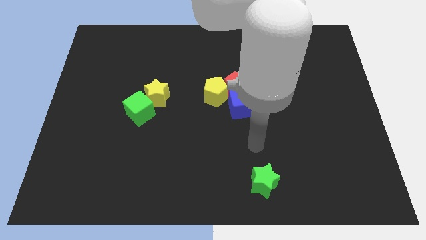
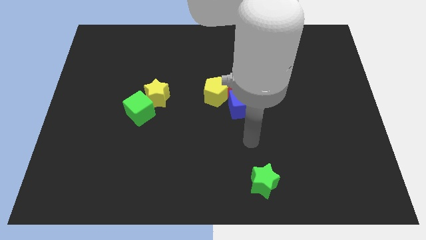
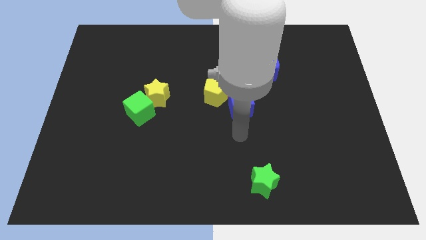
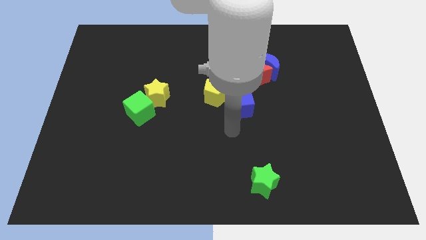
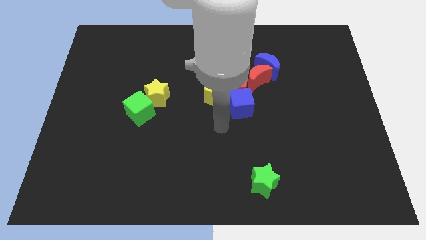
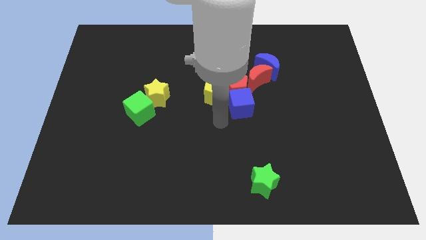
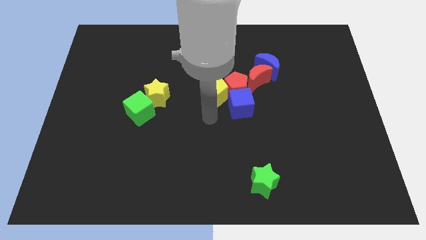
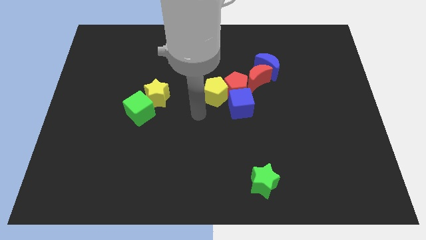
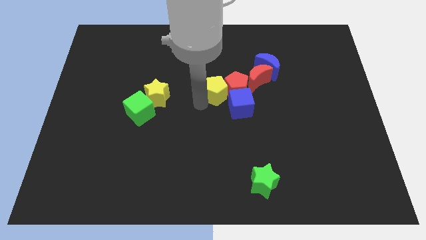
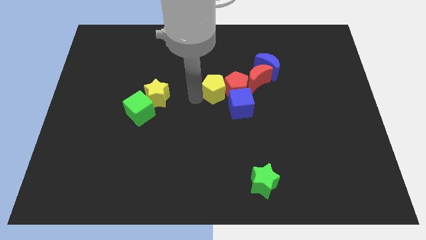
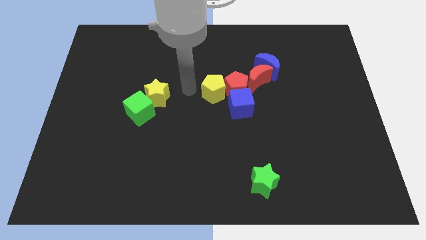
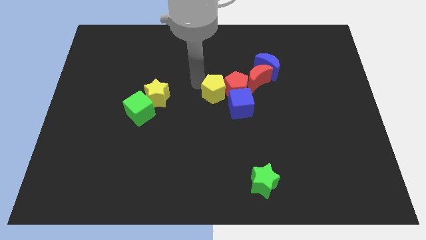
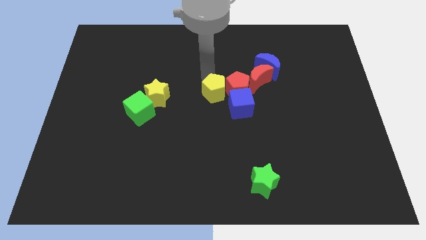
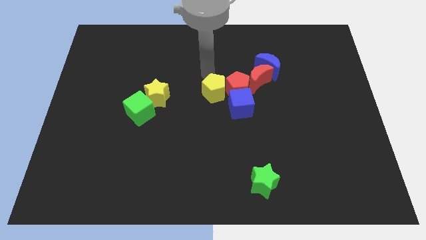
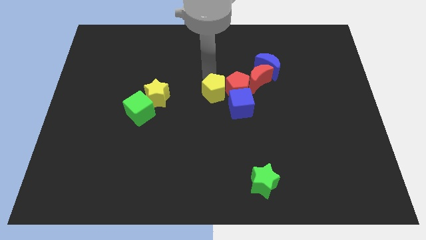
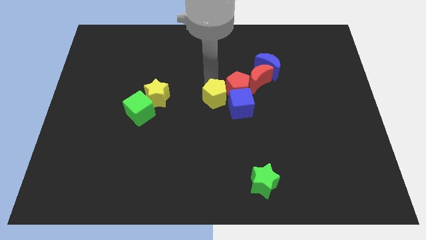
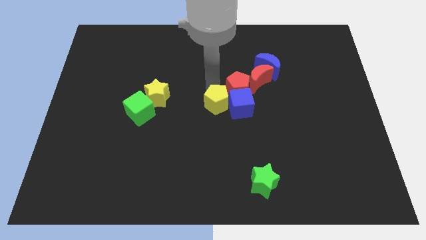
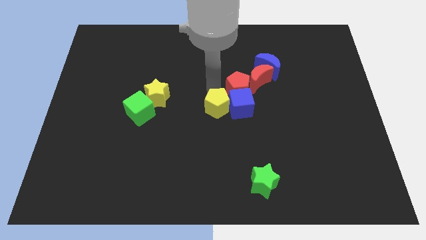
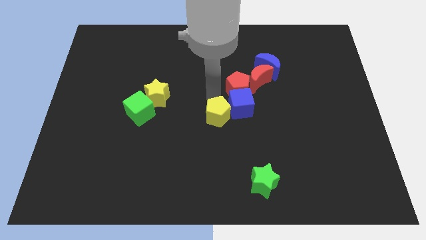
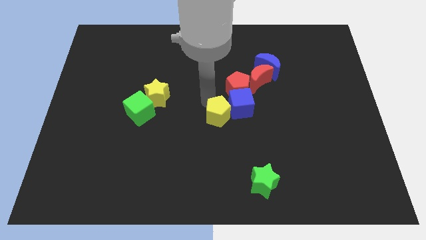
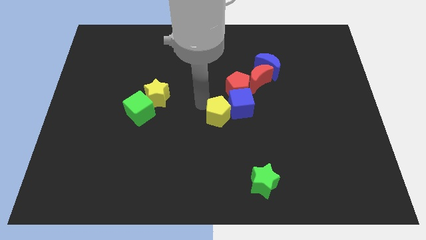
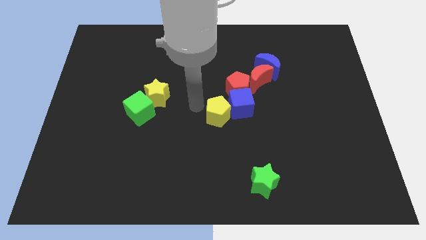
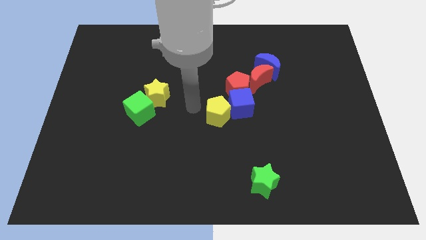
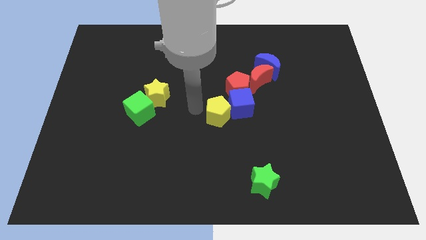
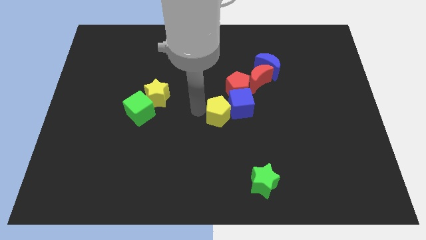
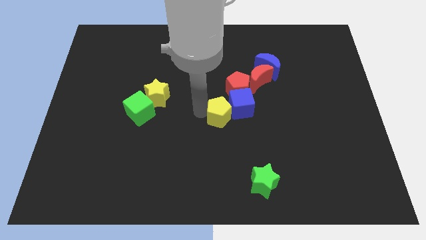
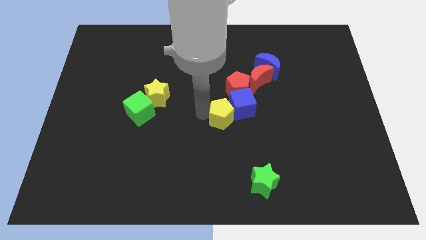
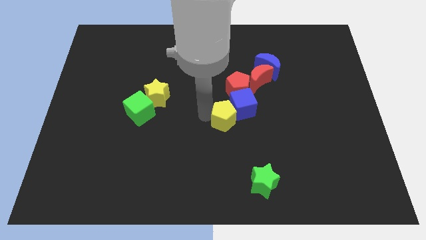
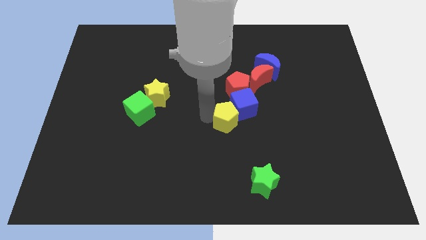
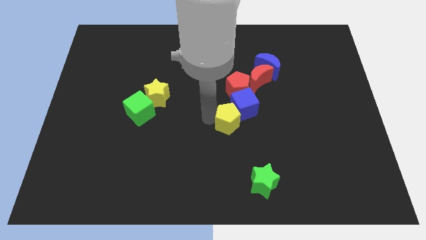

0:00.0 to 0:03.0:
slightly push the yellow pentagon diagonally downwards and right

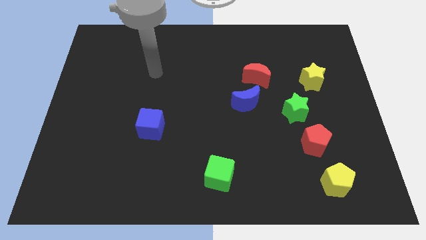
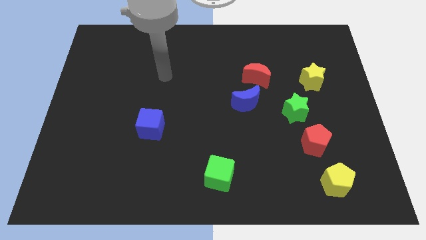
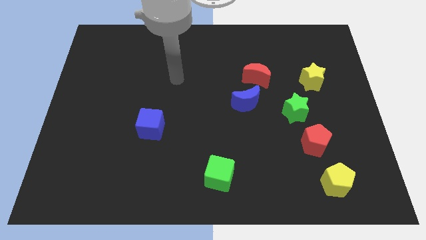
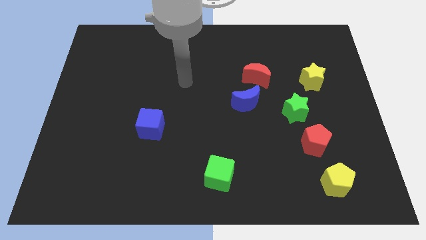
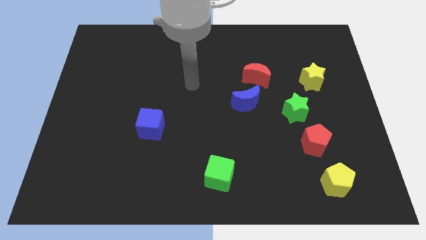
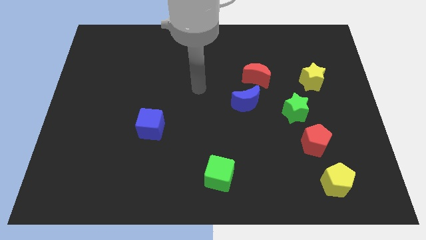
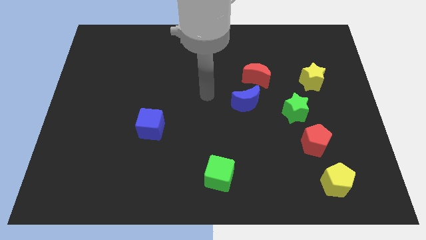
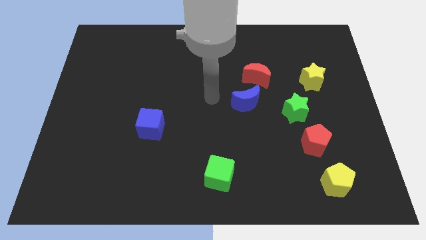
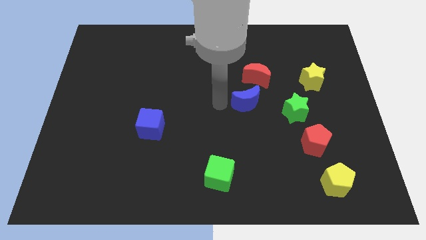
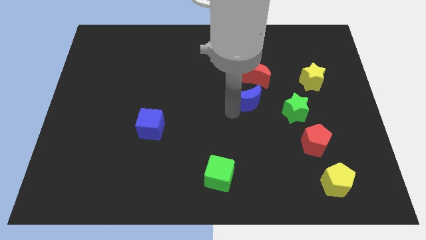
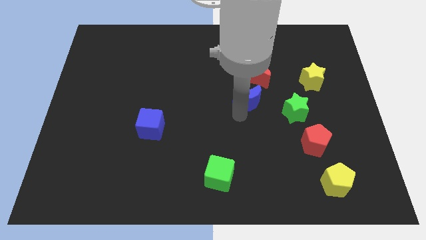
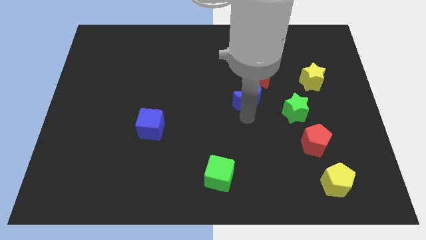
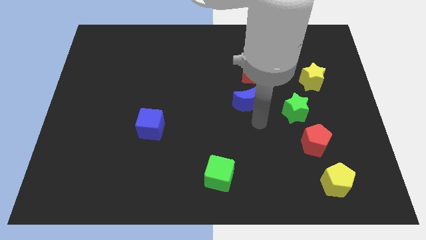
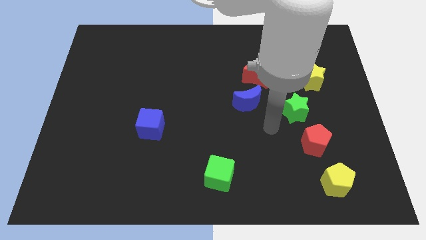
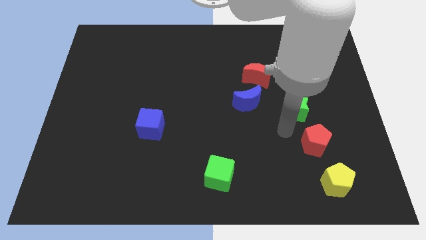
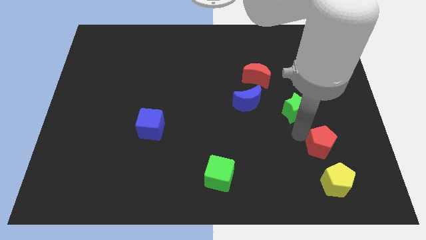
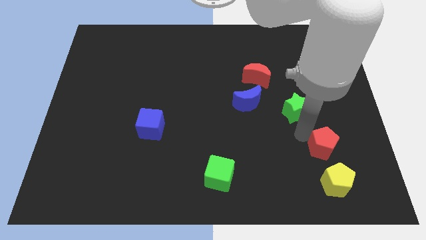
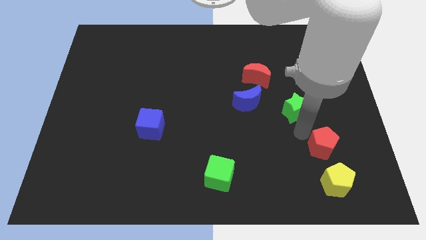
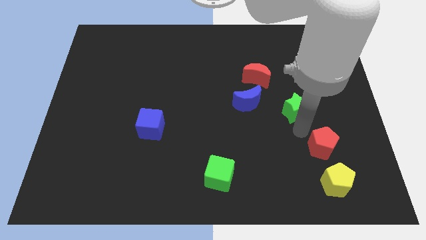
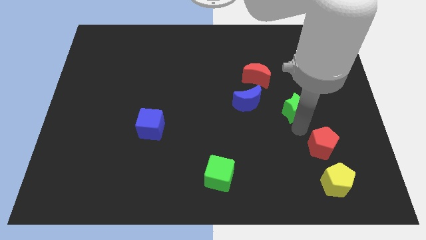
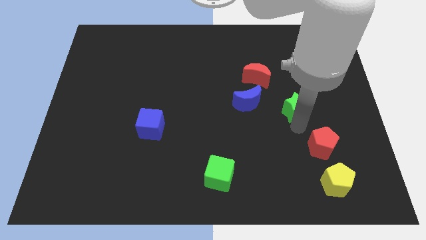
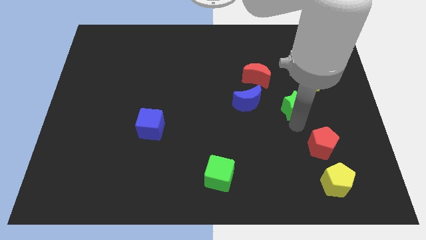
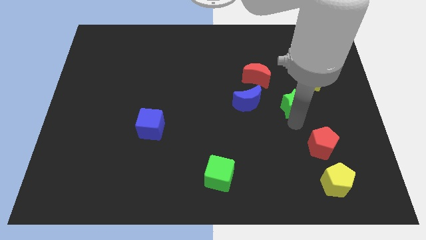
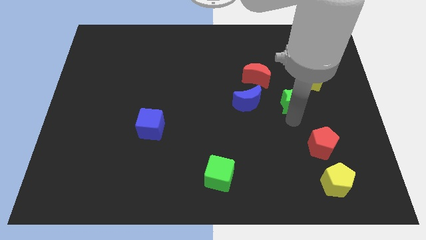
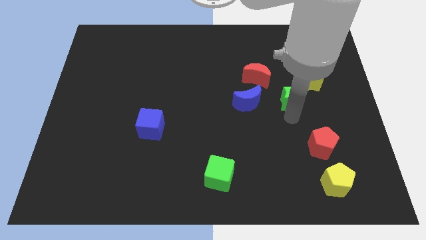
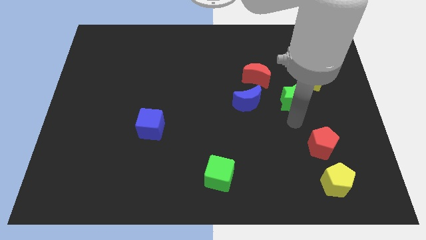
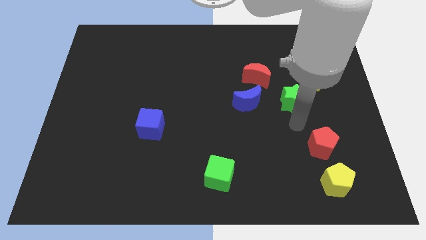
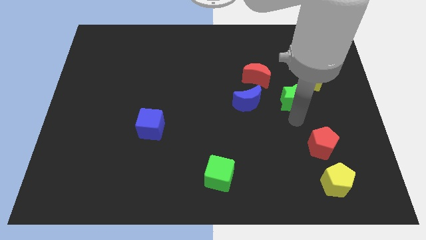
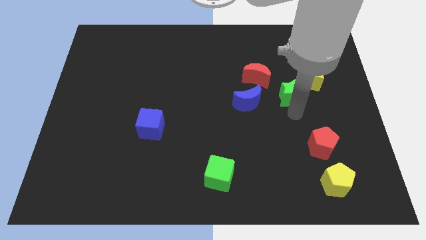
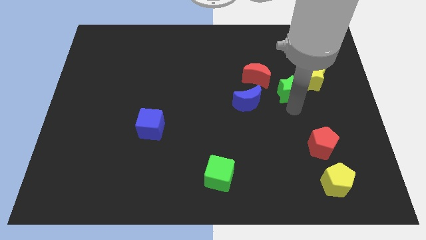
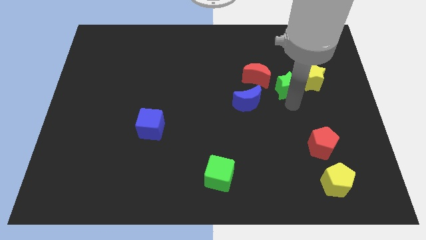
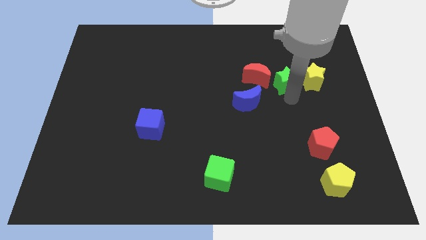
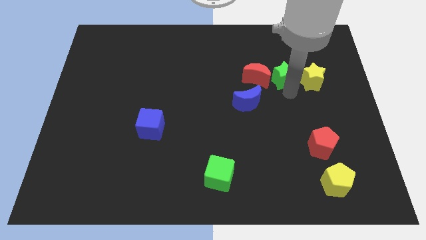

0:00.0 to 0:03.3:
push the green star a bit upwards and to the left

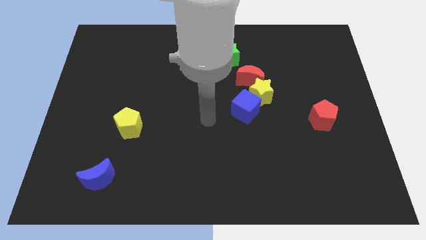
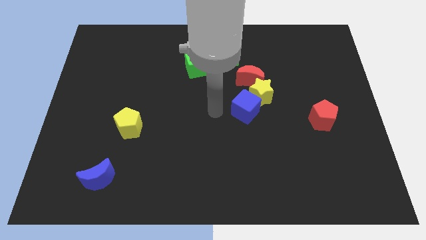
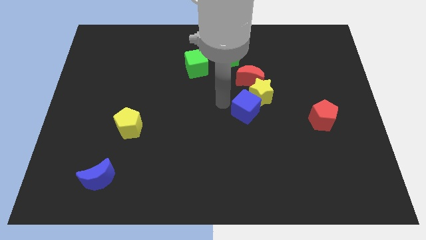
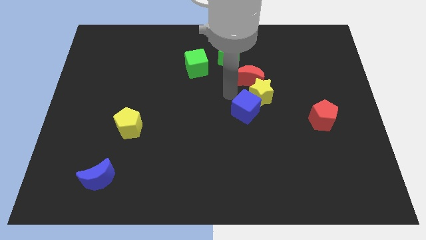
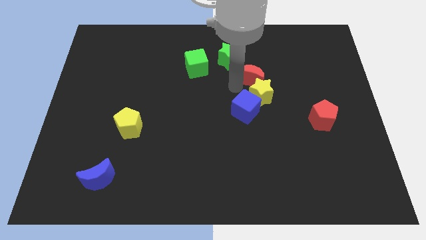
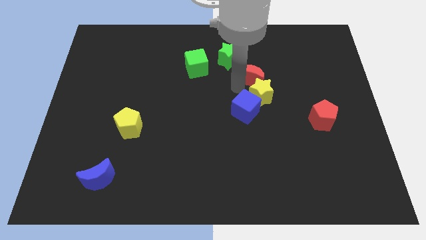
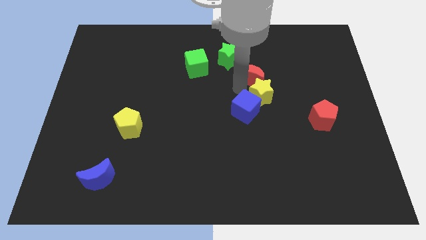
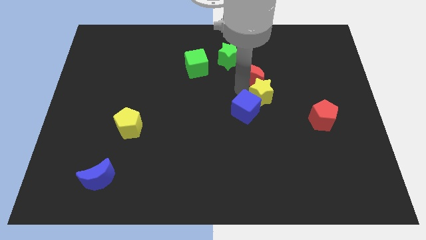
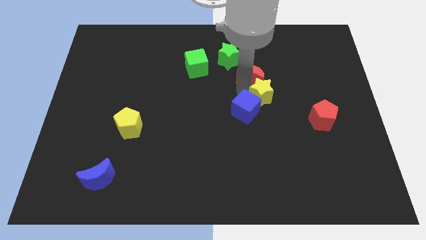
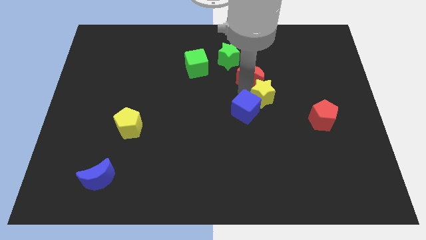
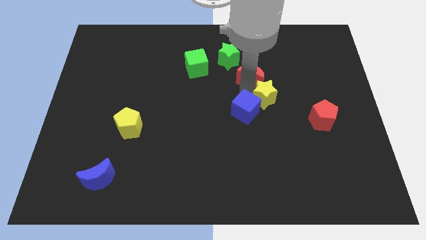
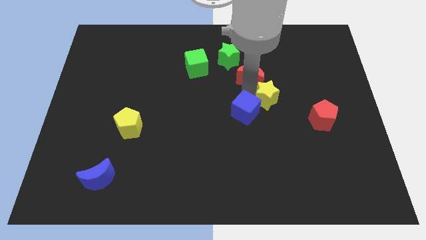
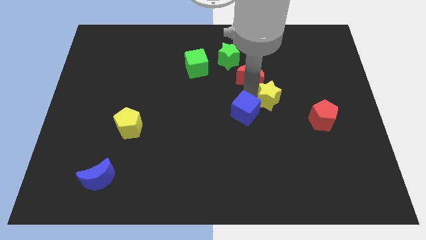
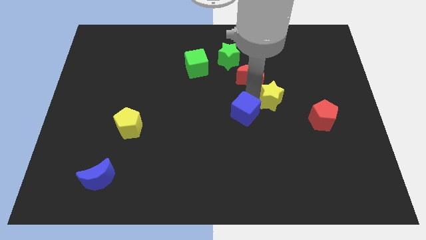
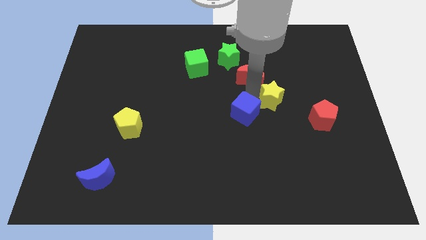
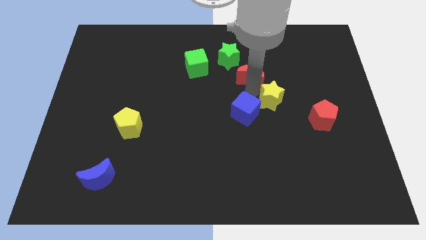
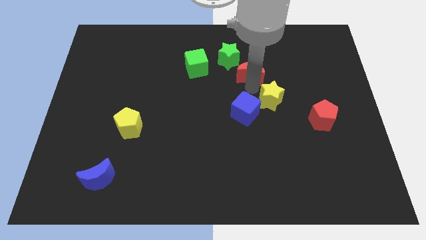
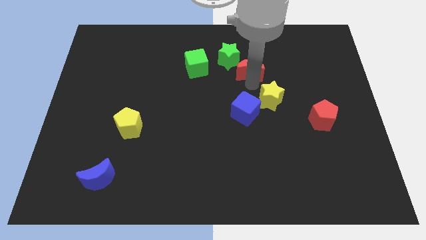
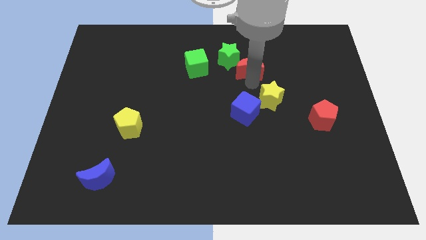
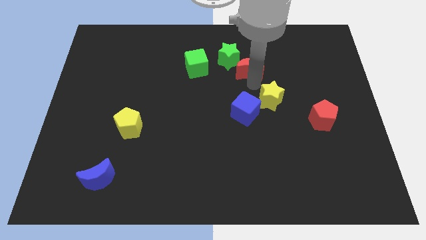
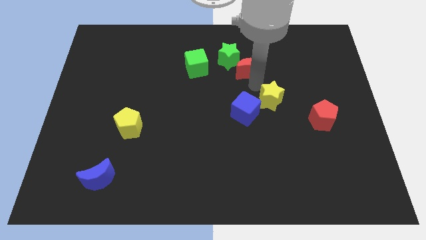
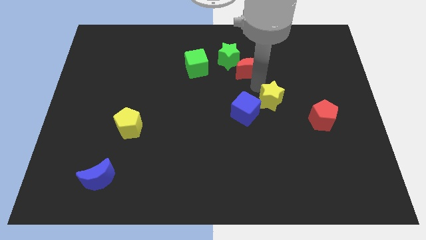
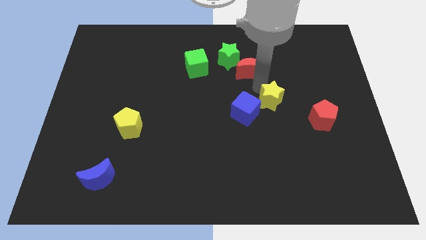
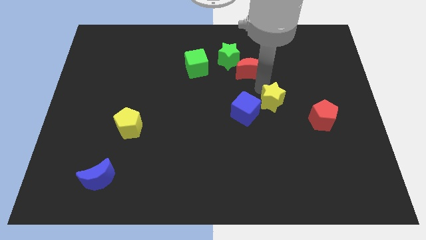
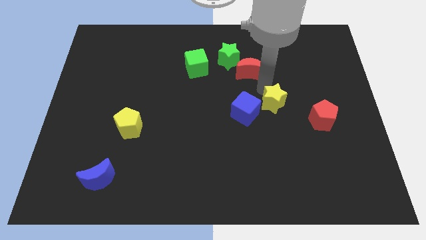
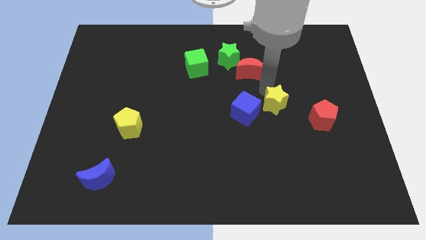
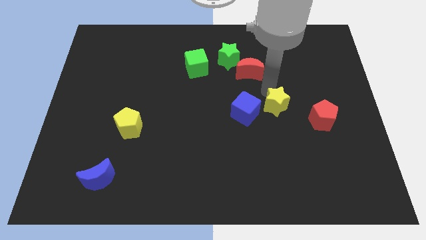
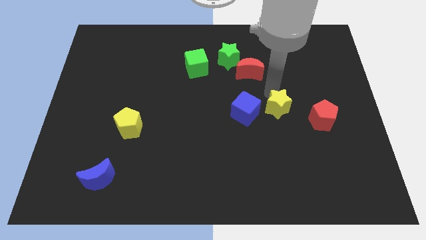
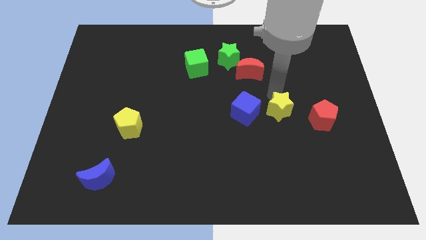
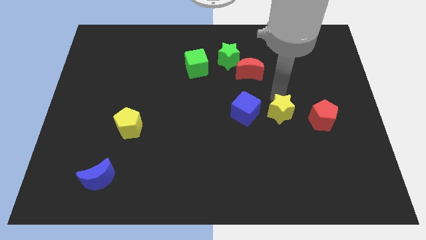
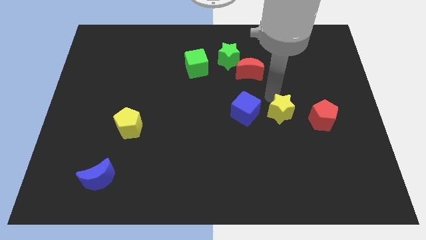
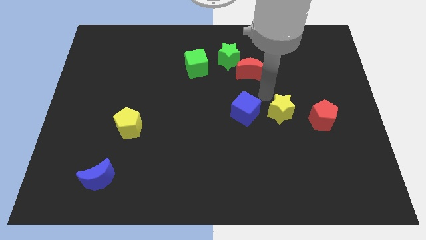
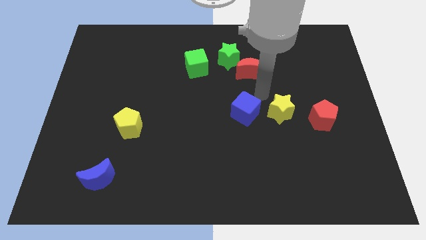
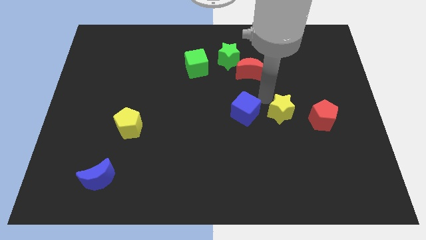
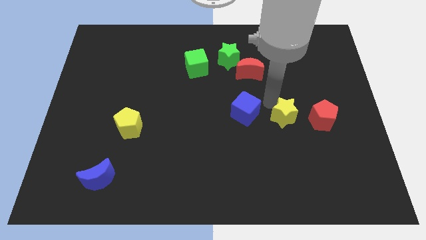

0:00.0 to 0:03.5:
slide the yellow star a bit downwards and right
